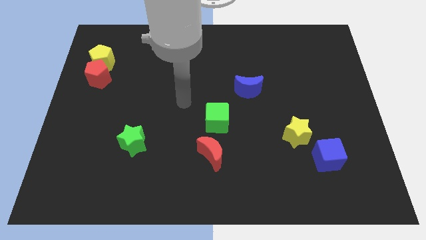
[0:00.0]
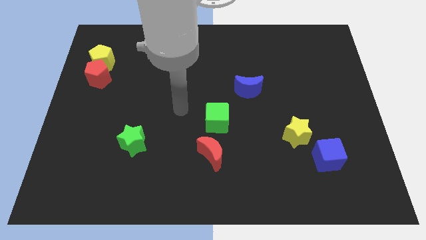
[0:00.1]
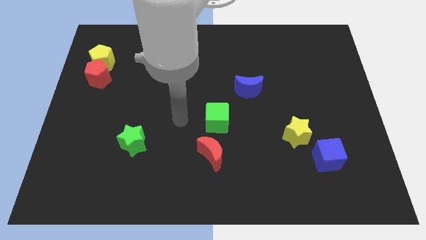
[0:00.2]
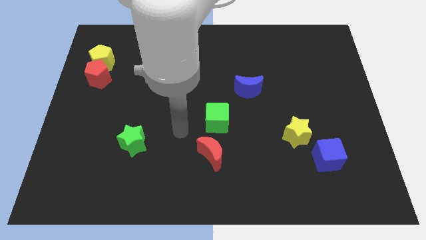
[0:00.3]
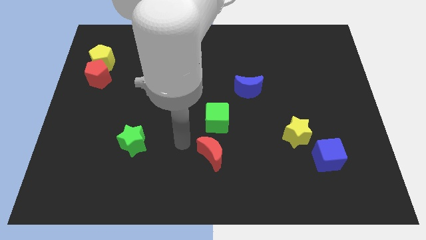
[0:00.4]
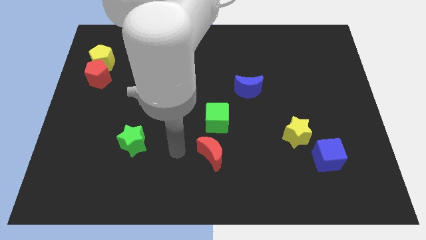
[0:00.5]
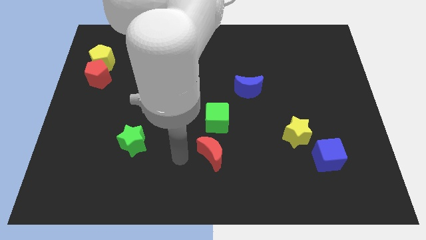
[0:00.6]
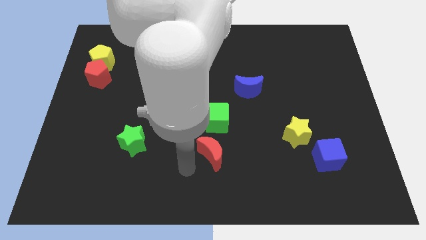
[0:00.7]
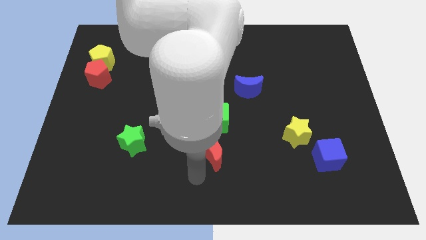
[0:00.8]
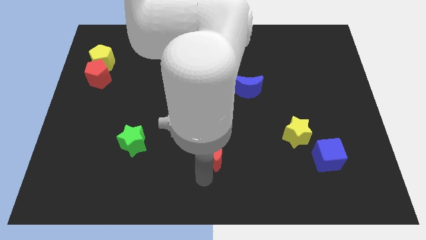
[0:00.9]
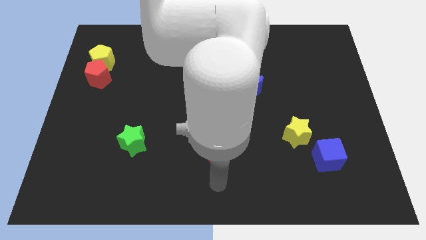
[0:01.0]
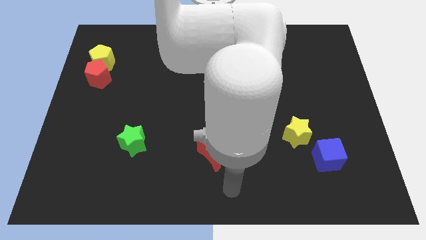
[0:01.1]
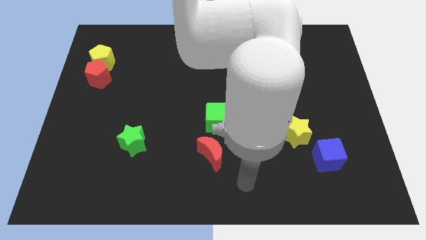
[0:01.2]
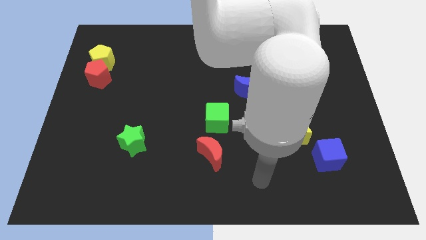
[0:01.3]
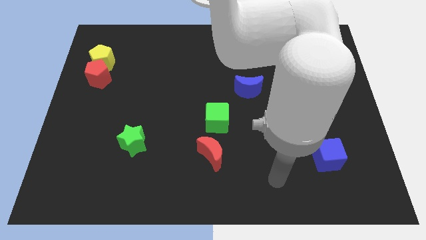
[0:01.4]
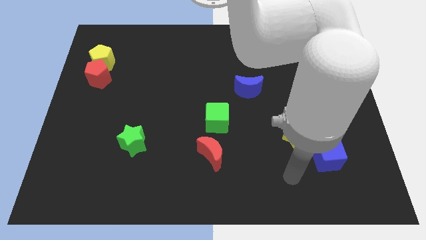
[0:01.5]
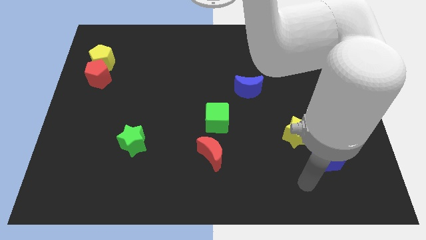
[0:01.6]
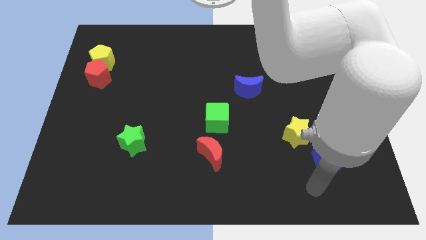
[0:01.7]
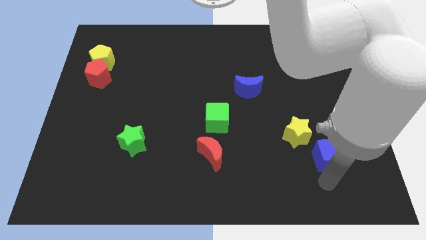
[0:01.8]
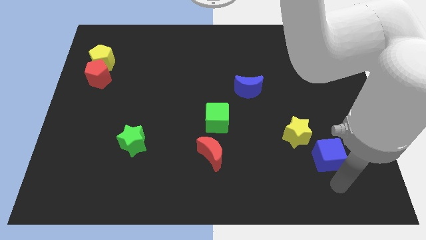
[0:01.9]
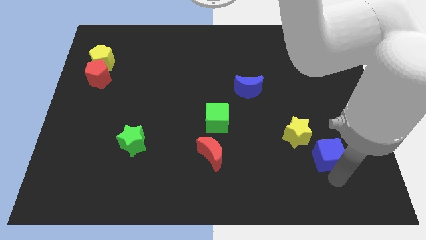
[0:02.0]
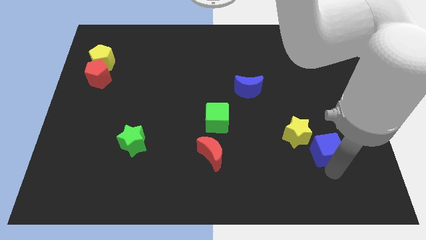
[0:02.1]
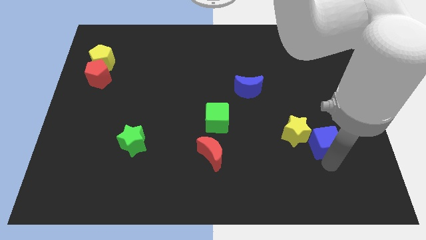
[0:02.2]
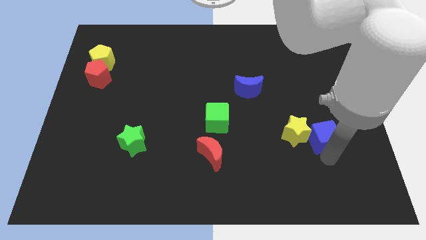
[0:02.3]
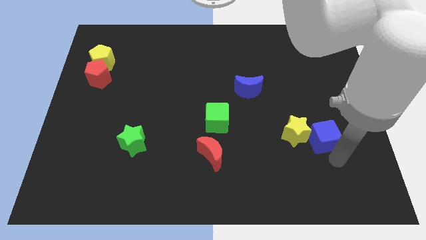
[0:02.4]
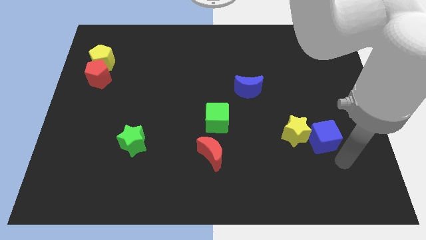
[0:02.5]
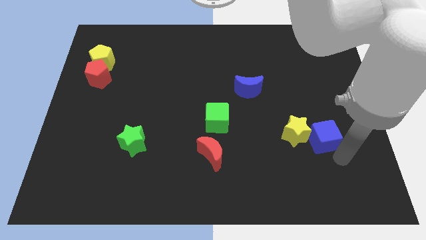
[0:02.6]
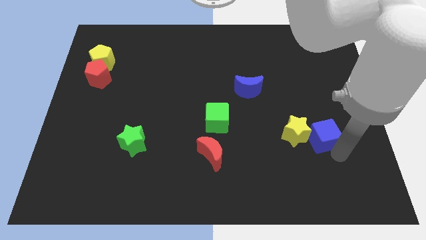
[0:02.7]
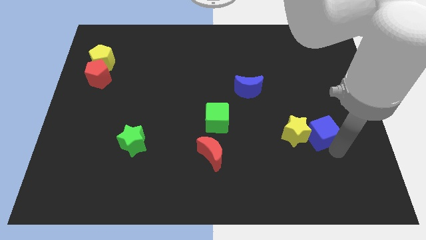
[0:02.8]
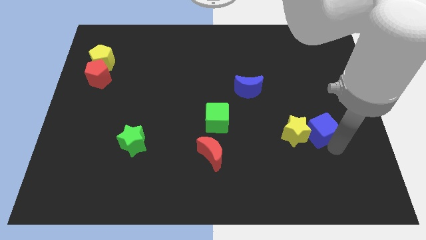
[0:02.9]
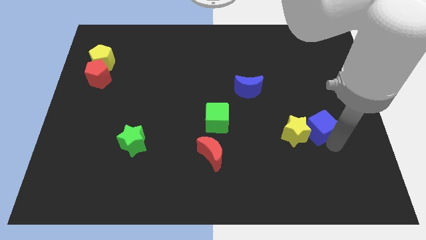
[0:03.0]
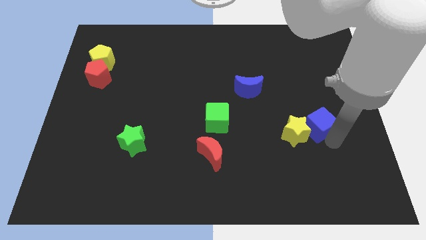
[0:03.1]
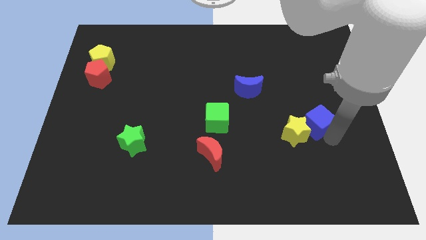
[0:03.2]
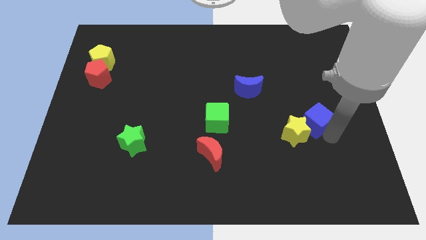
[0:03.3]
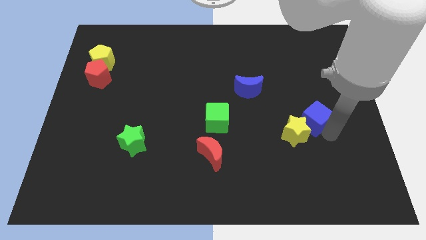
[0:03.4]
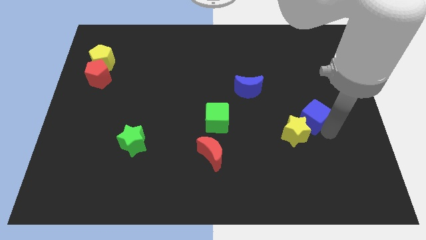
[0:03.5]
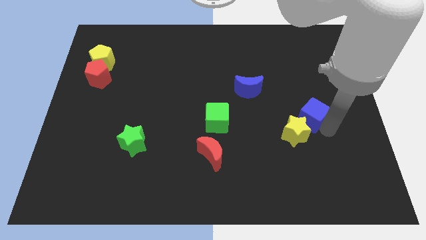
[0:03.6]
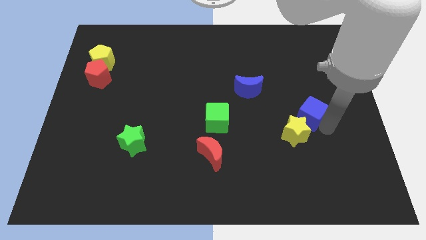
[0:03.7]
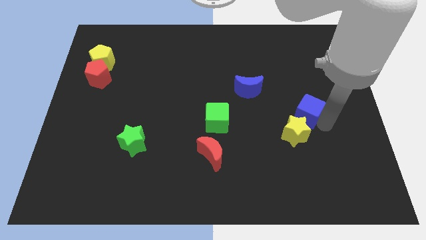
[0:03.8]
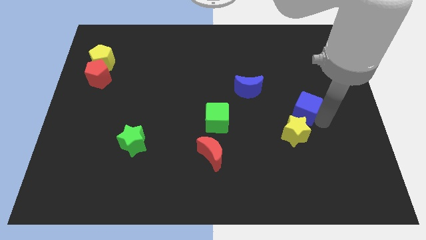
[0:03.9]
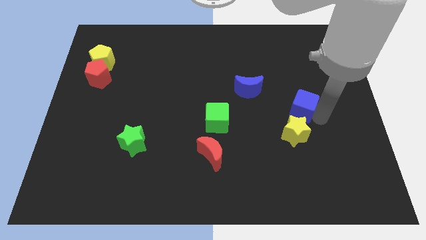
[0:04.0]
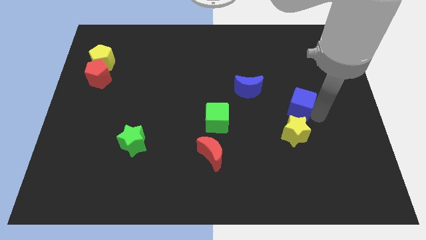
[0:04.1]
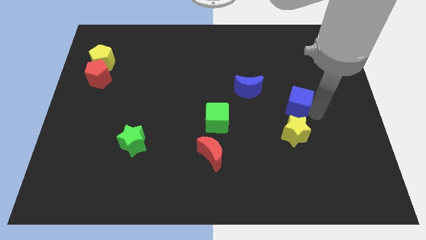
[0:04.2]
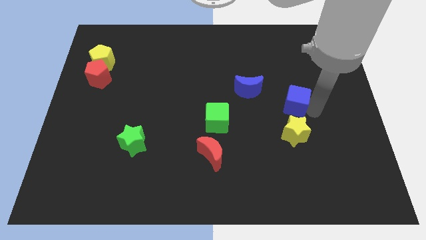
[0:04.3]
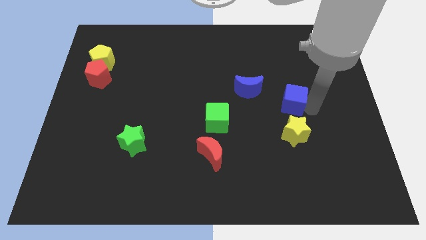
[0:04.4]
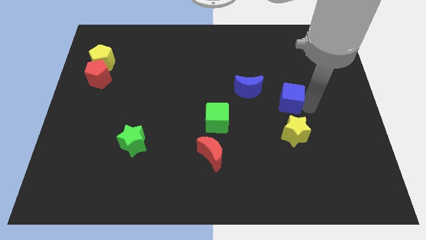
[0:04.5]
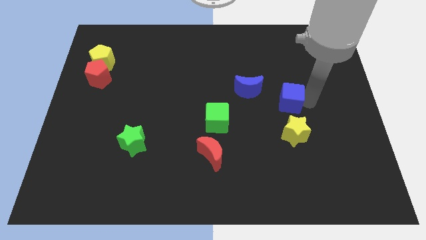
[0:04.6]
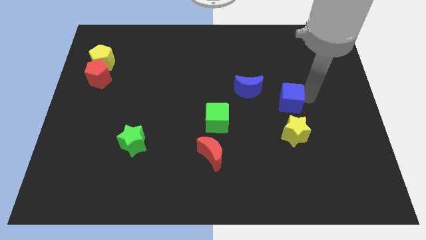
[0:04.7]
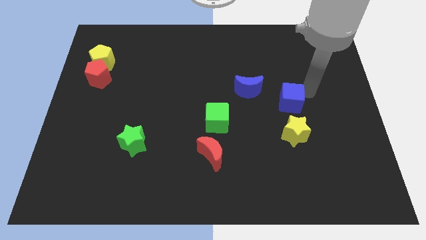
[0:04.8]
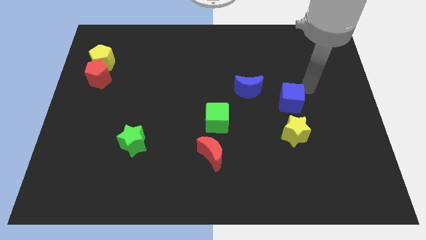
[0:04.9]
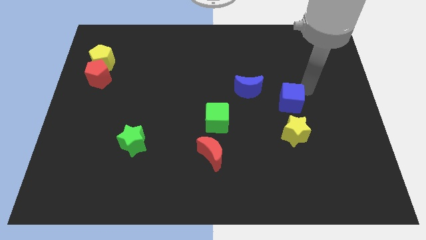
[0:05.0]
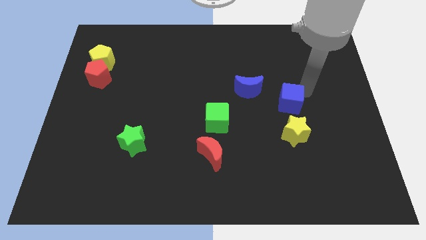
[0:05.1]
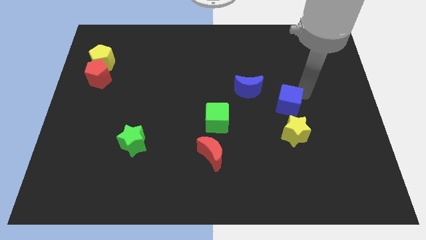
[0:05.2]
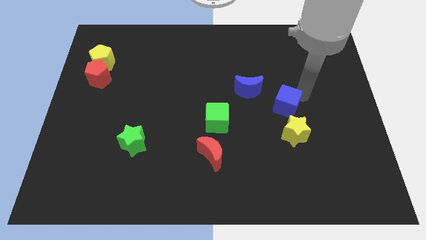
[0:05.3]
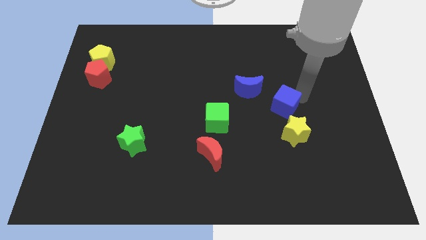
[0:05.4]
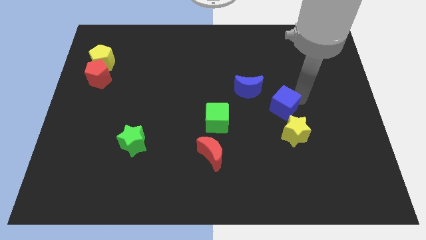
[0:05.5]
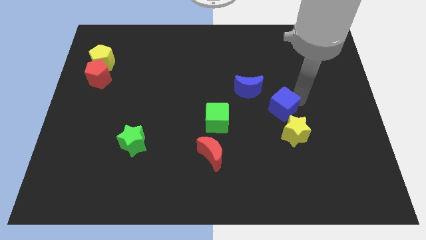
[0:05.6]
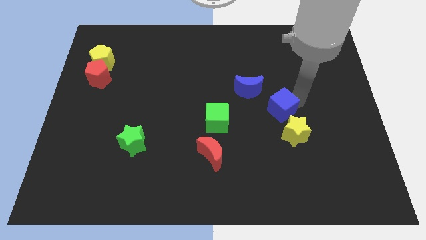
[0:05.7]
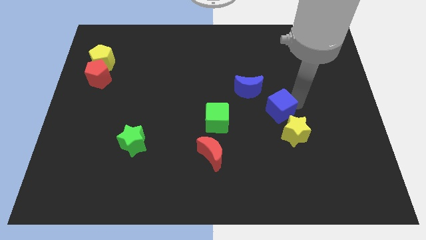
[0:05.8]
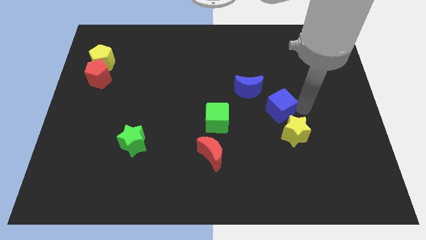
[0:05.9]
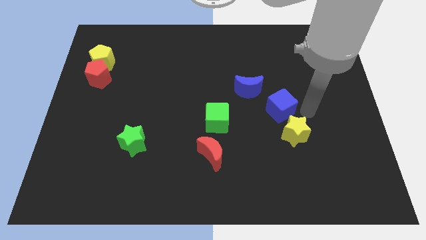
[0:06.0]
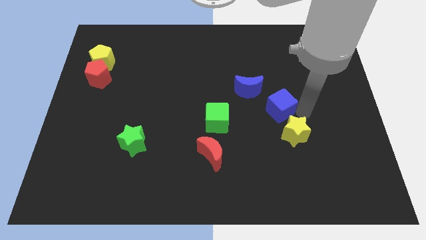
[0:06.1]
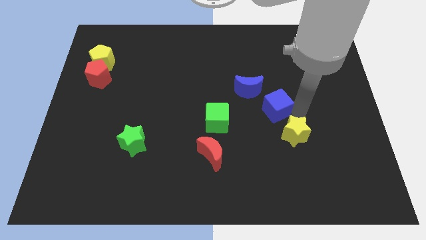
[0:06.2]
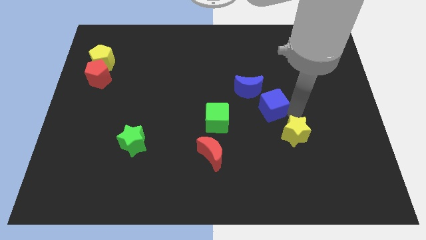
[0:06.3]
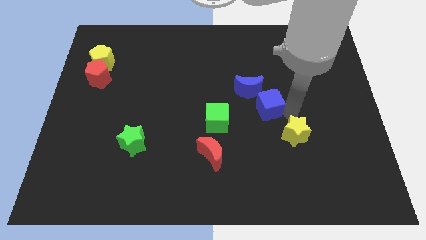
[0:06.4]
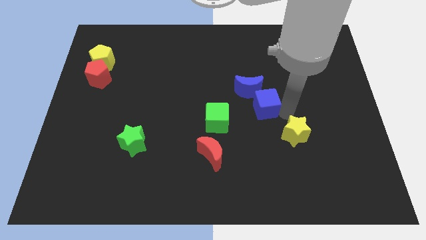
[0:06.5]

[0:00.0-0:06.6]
move the blue cube to the middle of the board
